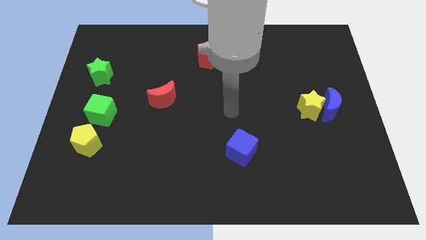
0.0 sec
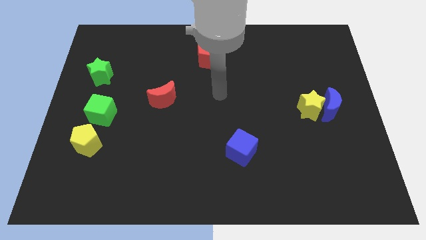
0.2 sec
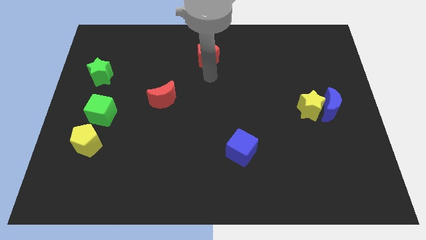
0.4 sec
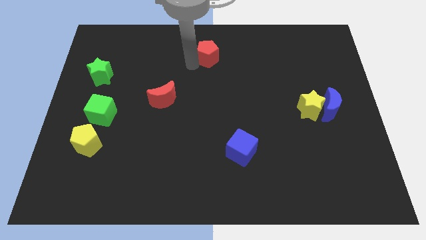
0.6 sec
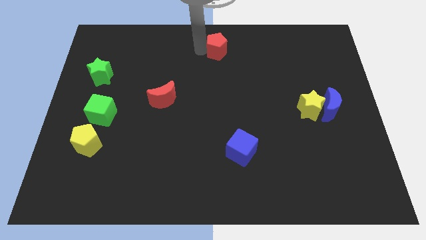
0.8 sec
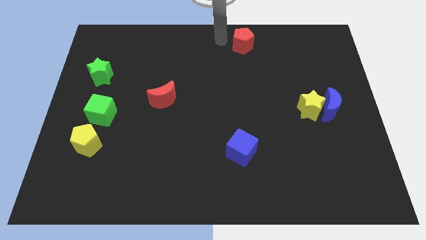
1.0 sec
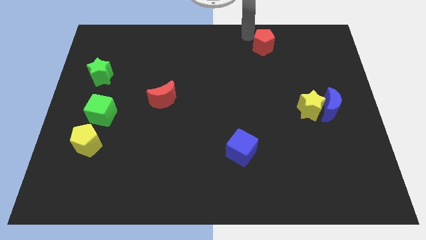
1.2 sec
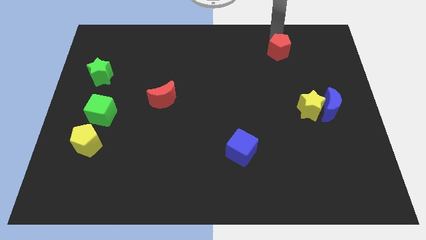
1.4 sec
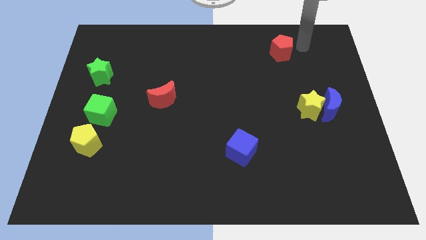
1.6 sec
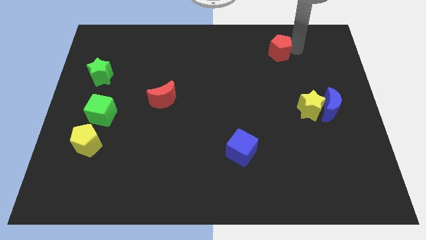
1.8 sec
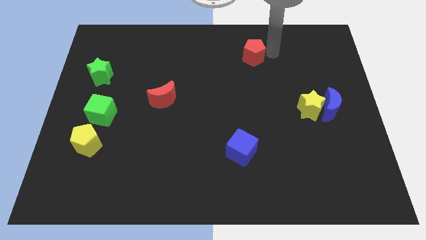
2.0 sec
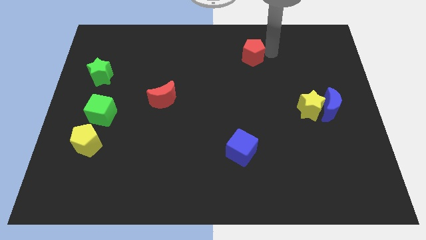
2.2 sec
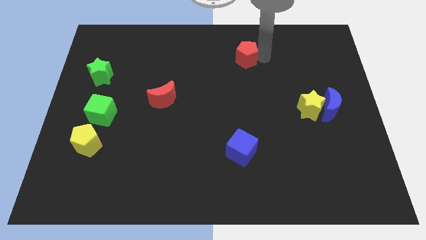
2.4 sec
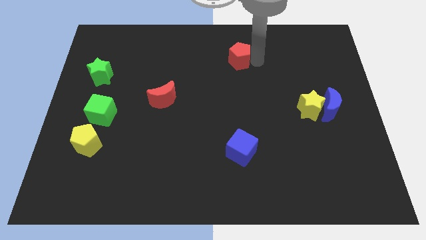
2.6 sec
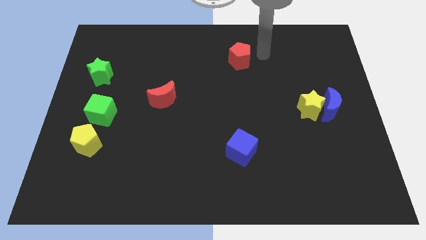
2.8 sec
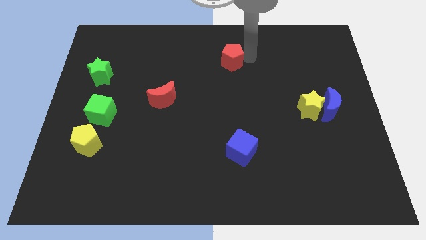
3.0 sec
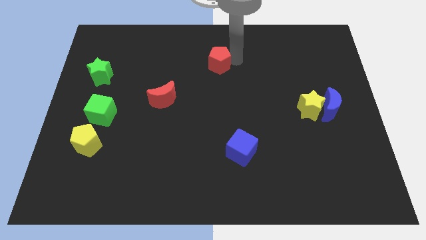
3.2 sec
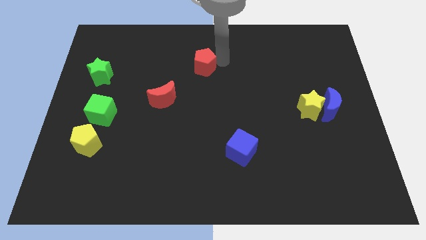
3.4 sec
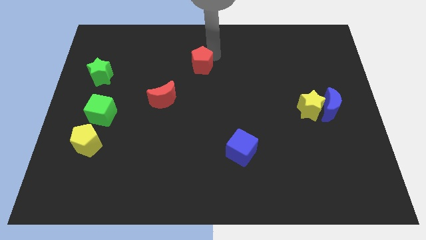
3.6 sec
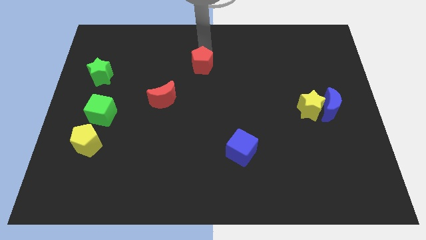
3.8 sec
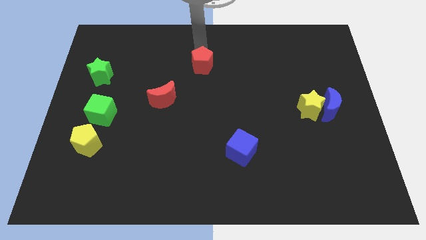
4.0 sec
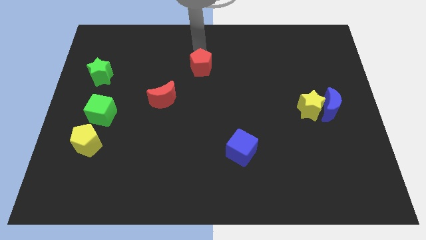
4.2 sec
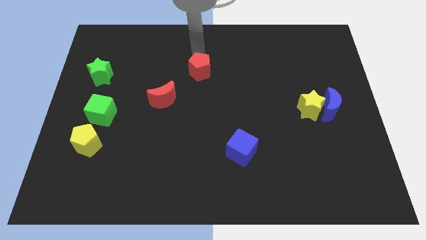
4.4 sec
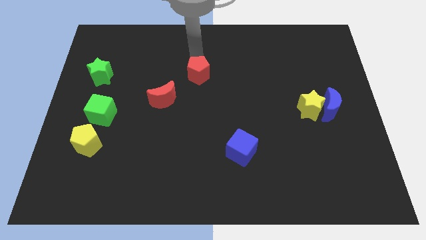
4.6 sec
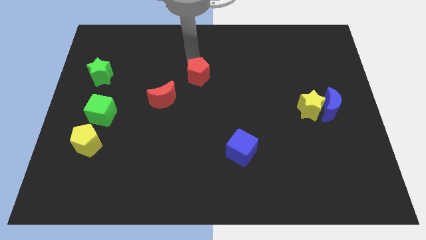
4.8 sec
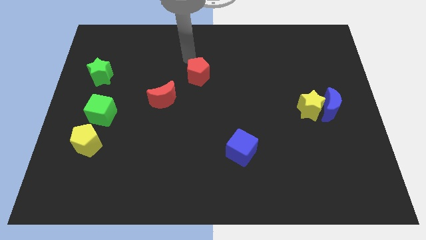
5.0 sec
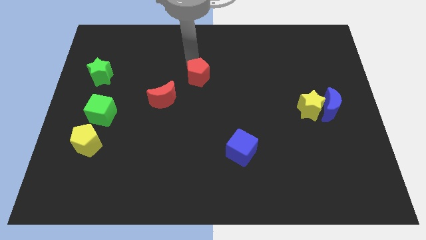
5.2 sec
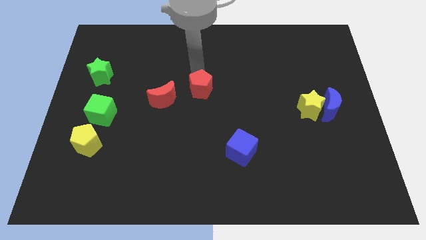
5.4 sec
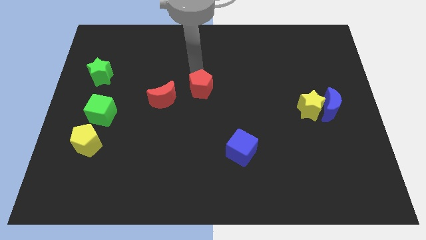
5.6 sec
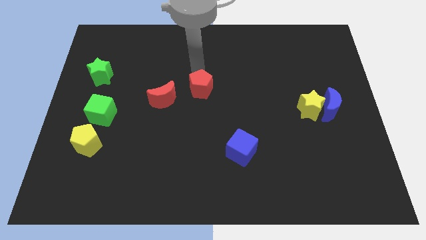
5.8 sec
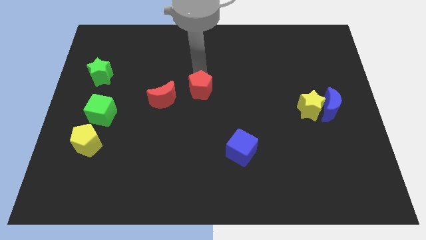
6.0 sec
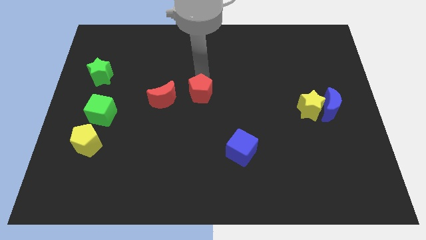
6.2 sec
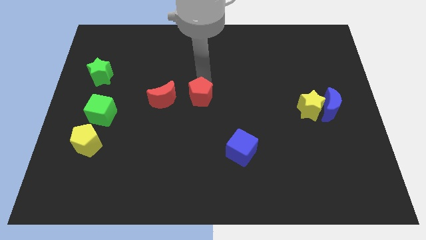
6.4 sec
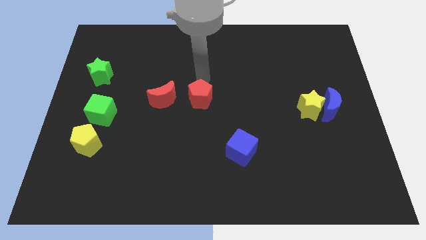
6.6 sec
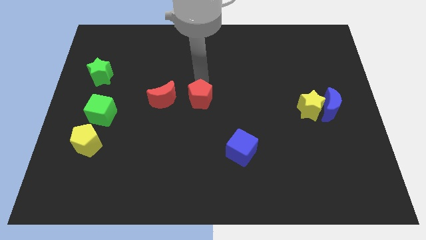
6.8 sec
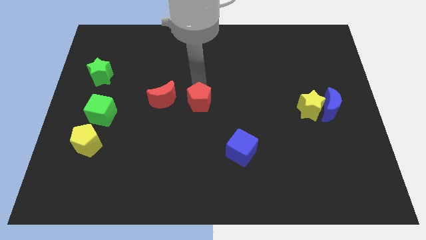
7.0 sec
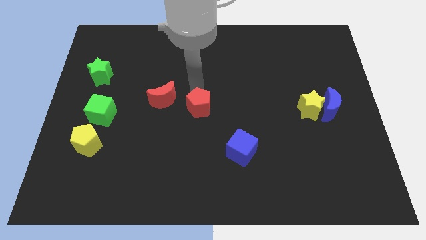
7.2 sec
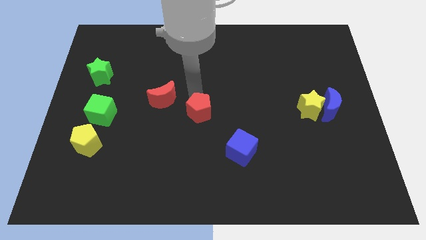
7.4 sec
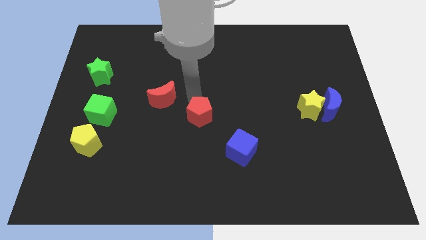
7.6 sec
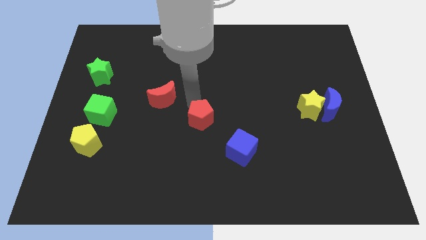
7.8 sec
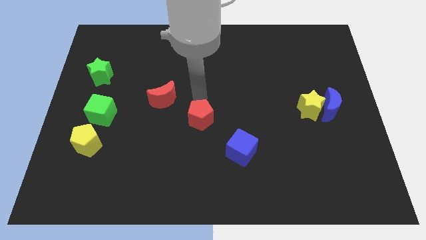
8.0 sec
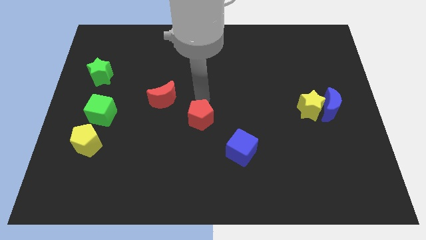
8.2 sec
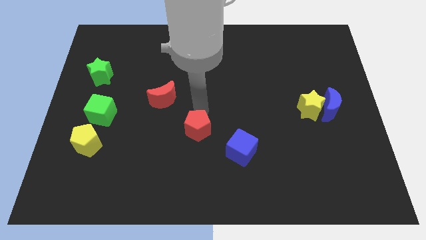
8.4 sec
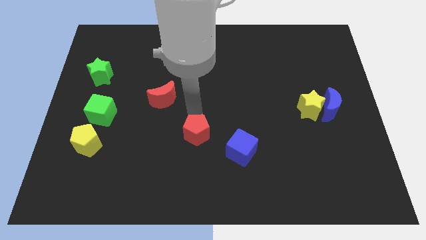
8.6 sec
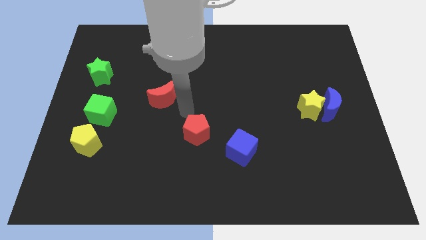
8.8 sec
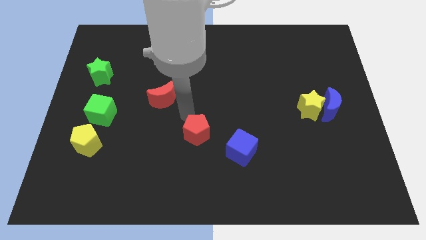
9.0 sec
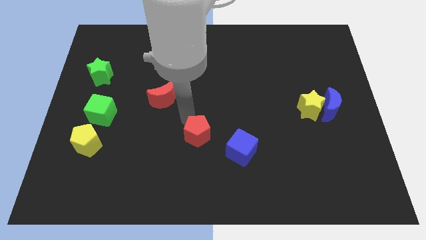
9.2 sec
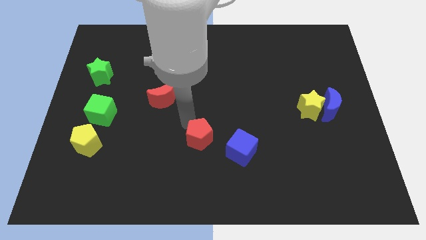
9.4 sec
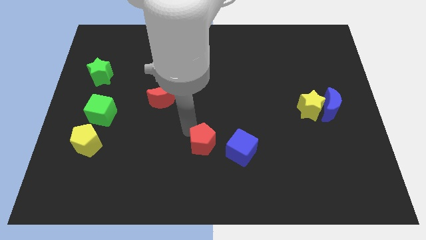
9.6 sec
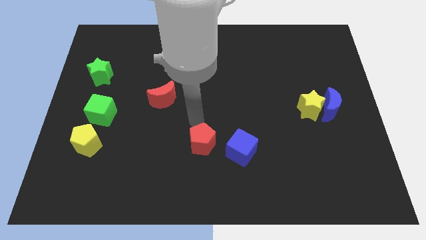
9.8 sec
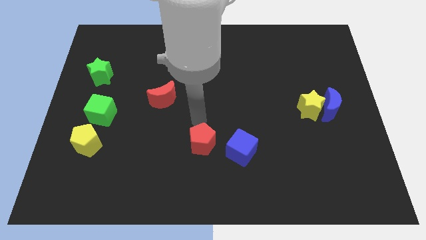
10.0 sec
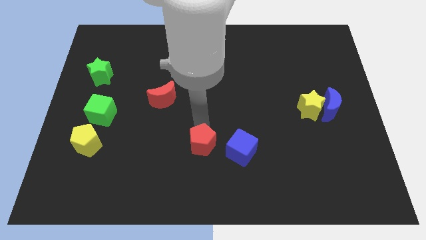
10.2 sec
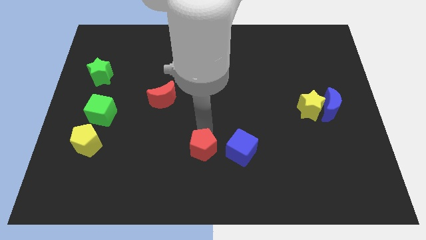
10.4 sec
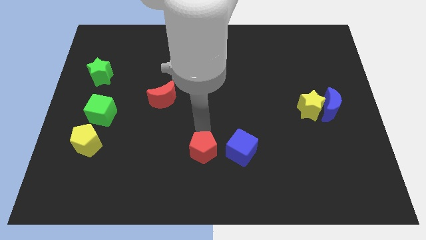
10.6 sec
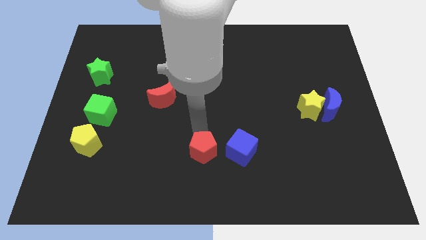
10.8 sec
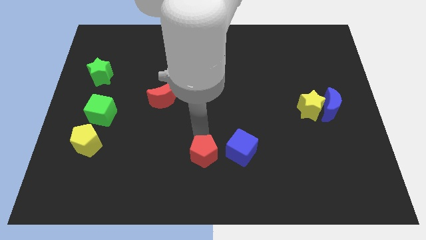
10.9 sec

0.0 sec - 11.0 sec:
push the red pentagon to the bottom side

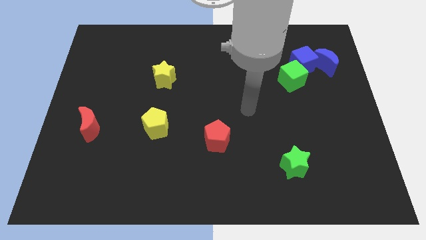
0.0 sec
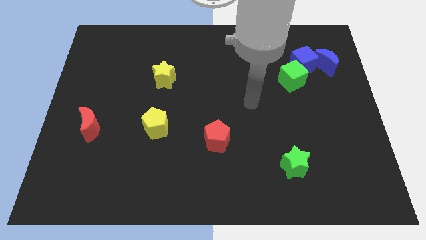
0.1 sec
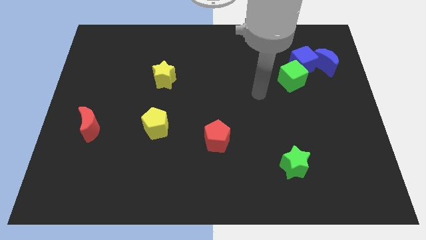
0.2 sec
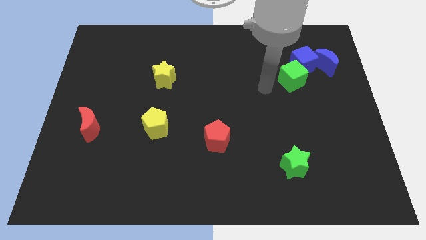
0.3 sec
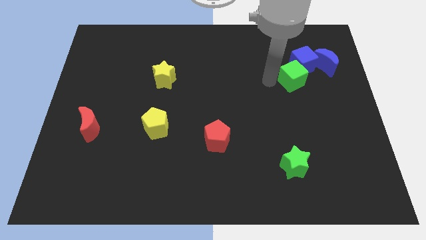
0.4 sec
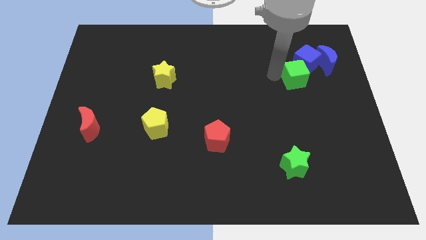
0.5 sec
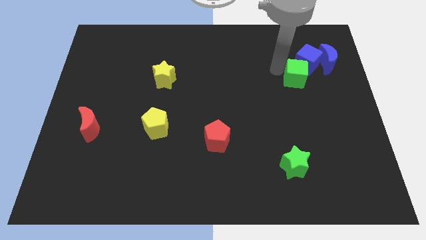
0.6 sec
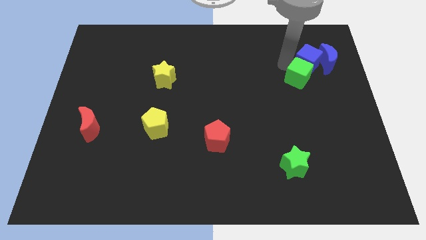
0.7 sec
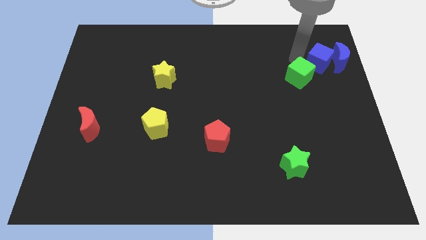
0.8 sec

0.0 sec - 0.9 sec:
put the blue moon to the right side of the board
